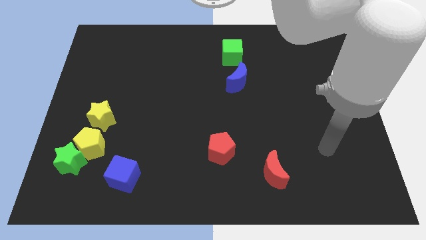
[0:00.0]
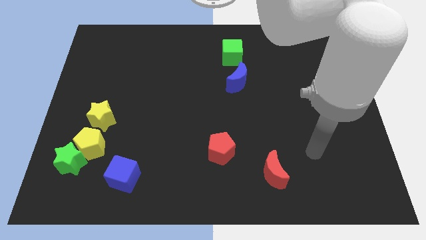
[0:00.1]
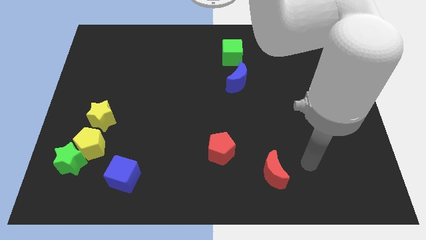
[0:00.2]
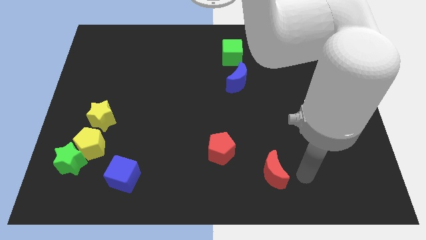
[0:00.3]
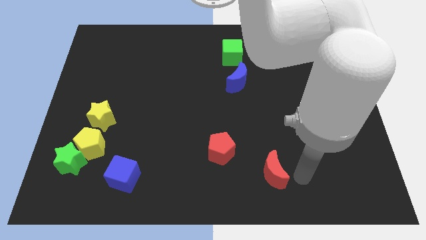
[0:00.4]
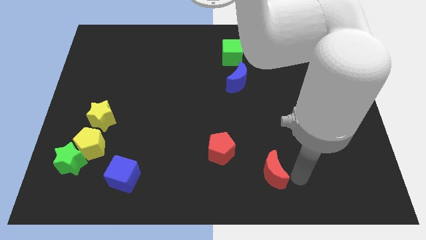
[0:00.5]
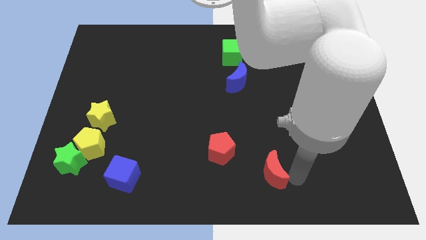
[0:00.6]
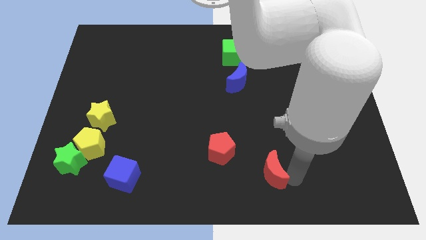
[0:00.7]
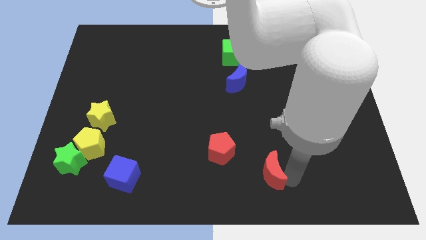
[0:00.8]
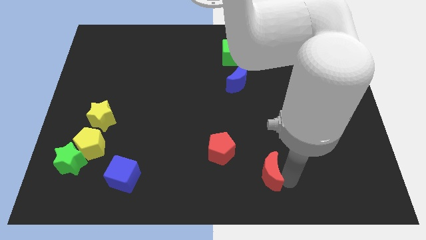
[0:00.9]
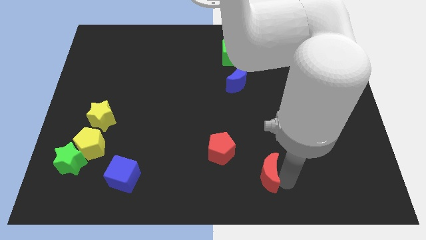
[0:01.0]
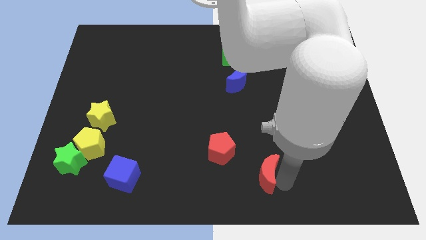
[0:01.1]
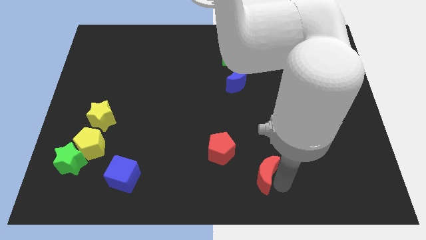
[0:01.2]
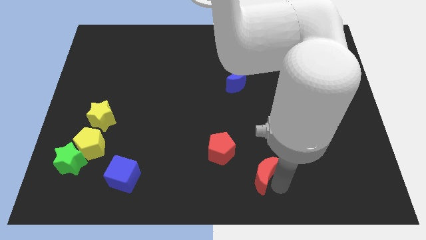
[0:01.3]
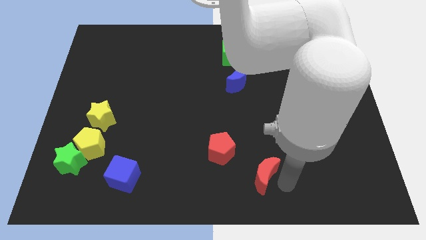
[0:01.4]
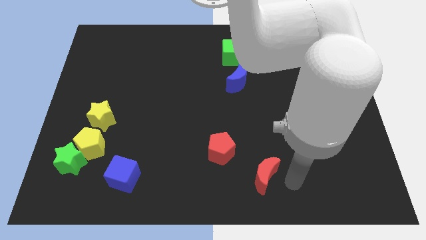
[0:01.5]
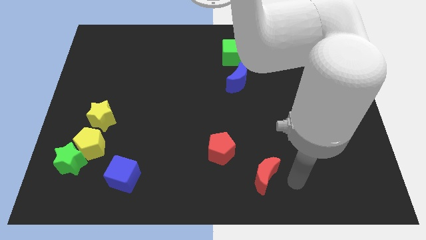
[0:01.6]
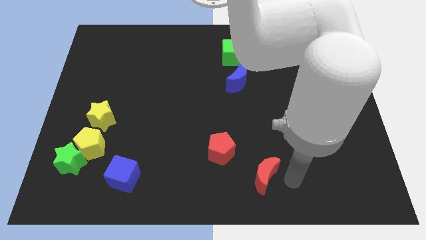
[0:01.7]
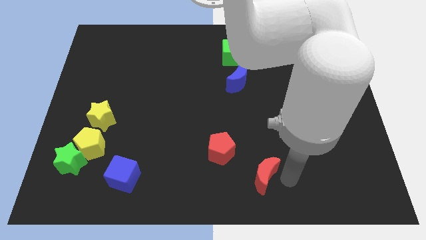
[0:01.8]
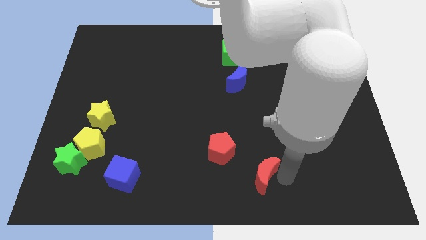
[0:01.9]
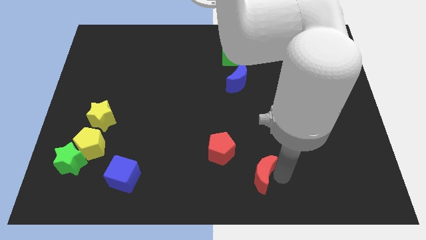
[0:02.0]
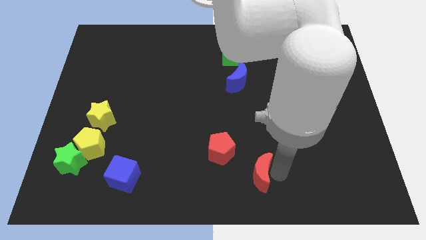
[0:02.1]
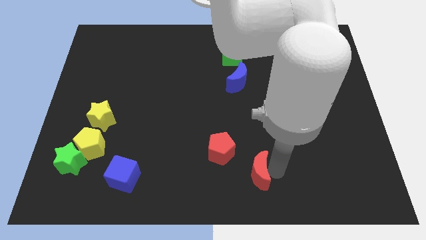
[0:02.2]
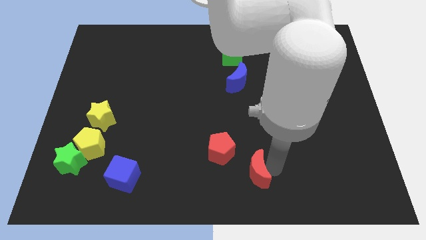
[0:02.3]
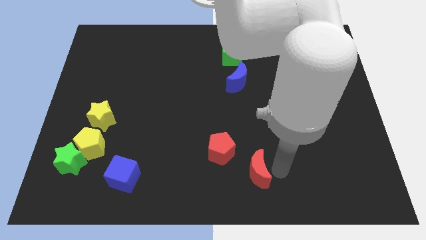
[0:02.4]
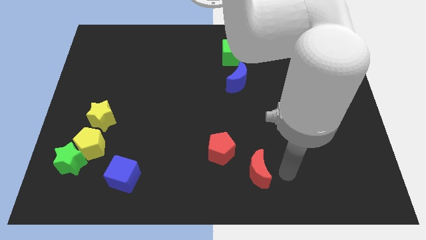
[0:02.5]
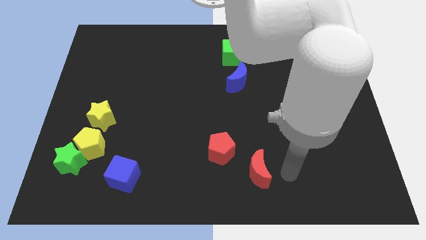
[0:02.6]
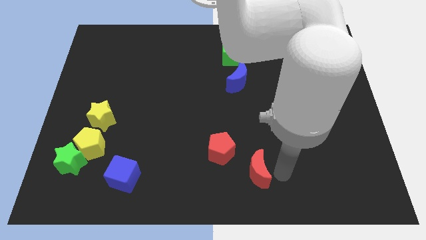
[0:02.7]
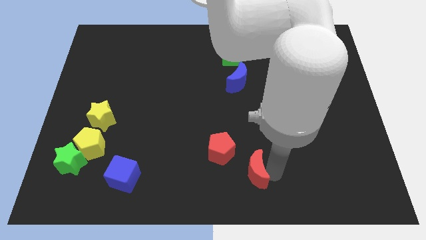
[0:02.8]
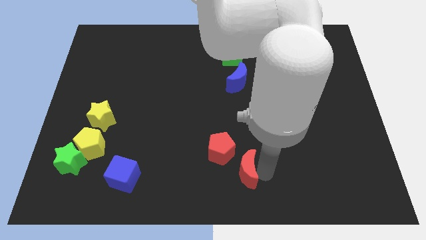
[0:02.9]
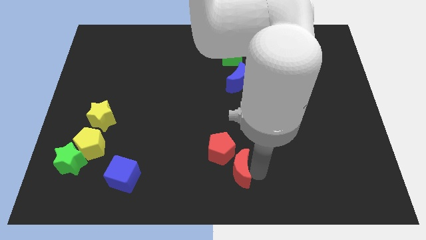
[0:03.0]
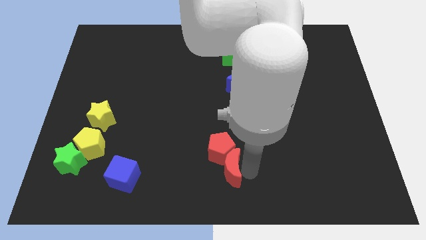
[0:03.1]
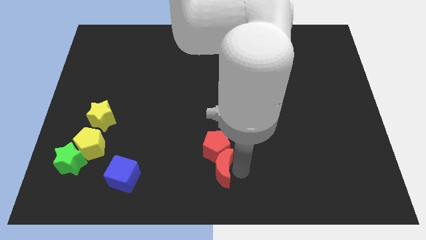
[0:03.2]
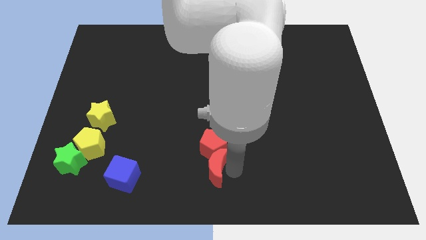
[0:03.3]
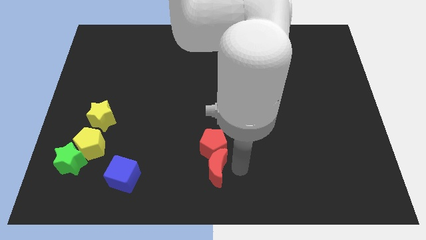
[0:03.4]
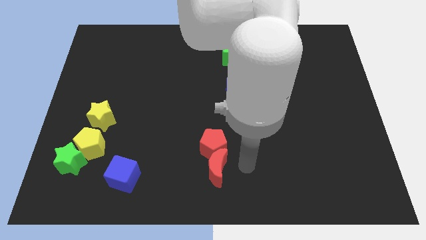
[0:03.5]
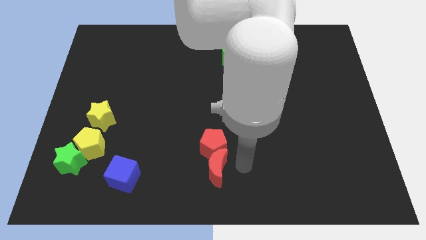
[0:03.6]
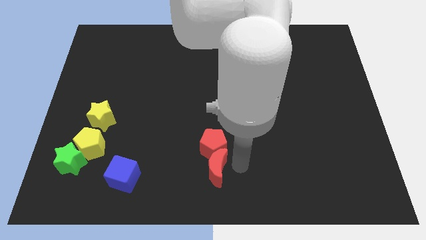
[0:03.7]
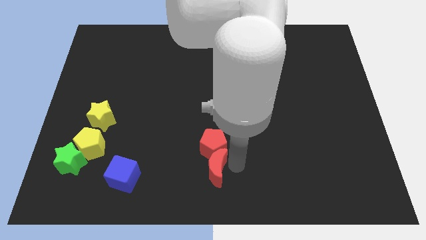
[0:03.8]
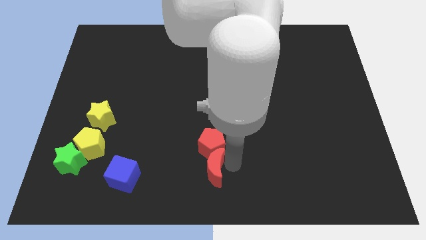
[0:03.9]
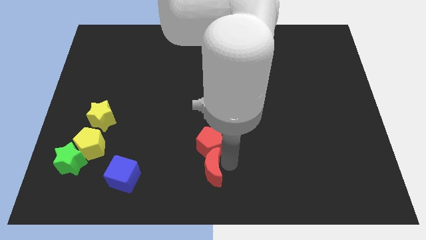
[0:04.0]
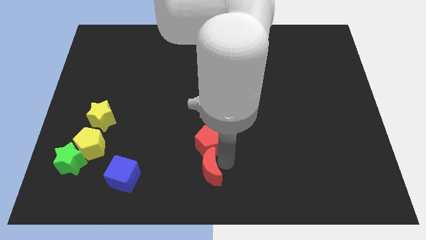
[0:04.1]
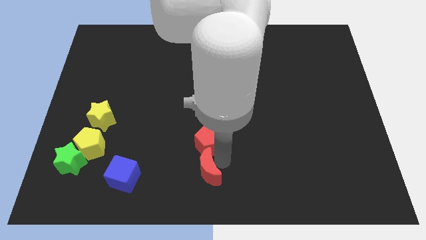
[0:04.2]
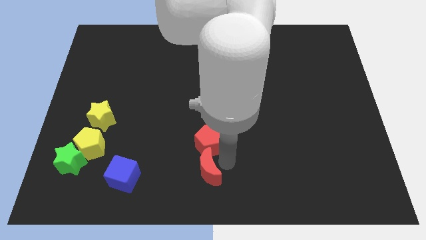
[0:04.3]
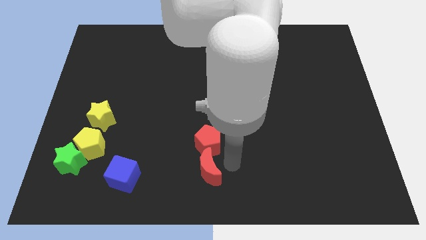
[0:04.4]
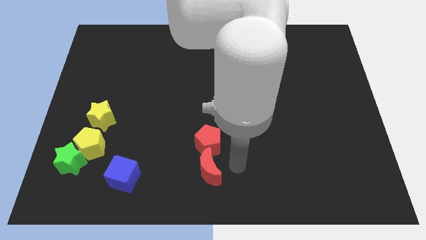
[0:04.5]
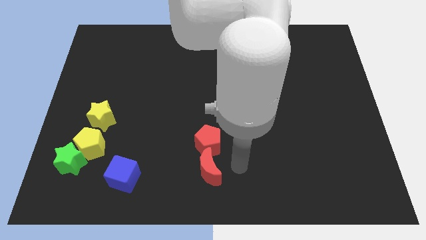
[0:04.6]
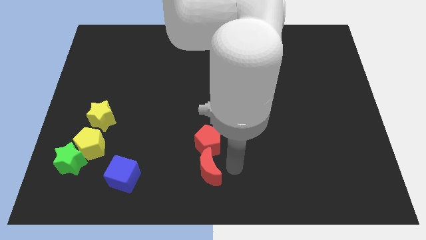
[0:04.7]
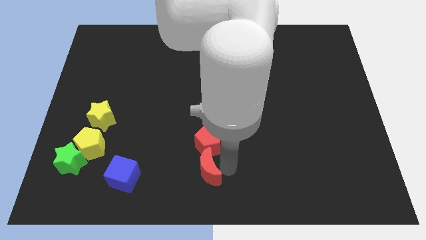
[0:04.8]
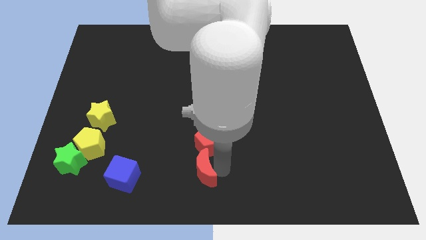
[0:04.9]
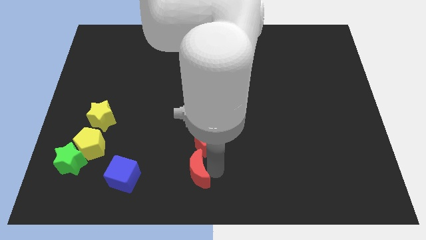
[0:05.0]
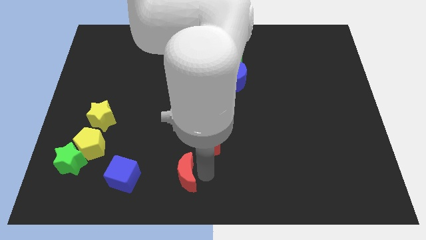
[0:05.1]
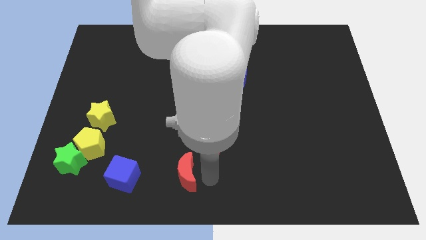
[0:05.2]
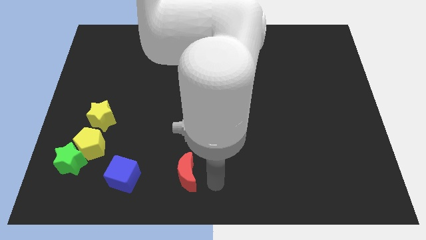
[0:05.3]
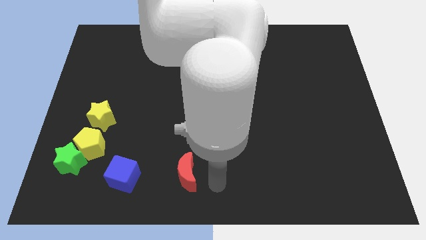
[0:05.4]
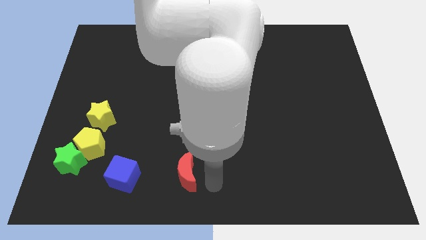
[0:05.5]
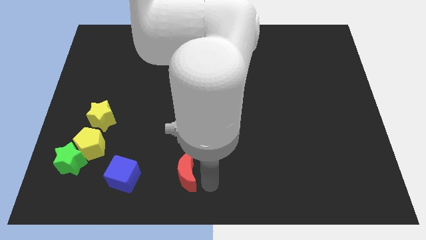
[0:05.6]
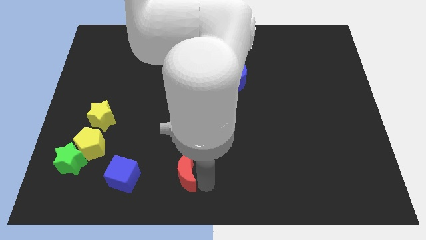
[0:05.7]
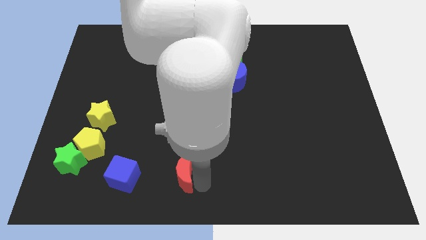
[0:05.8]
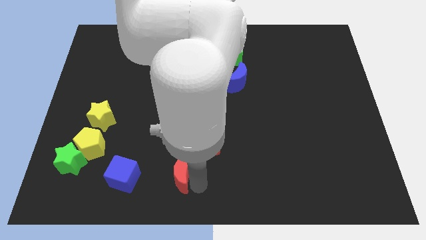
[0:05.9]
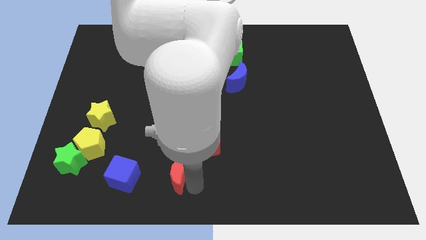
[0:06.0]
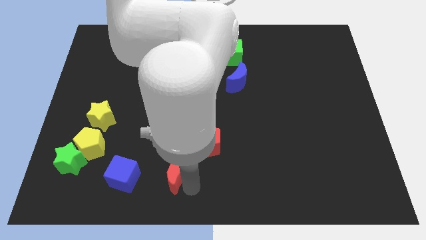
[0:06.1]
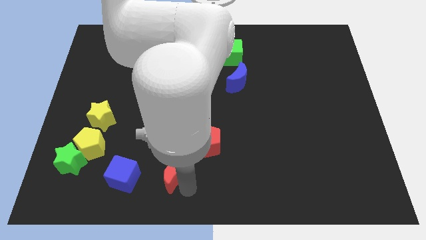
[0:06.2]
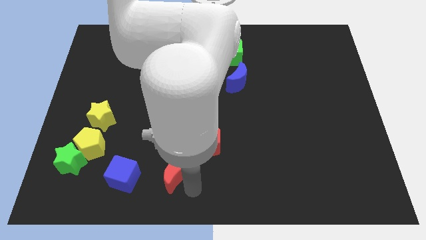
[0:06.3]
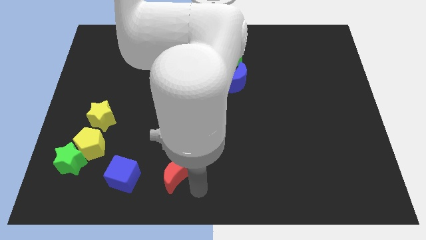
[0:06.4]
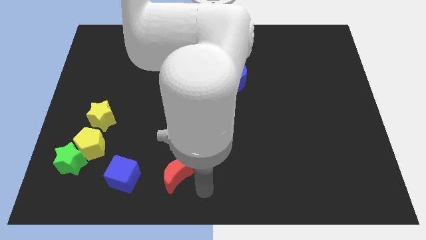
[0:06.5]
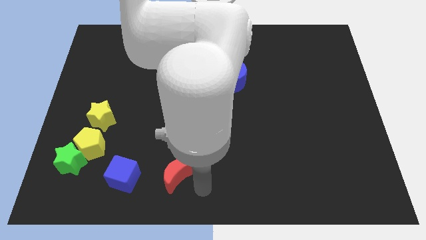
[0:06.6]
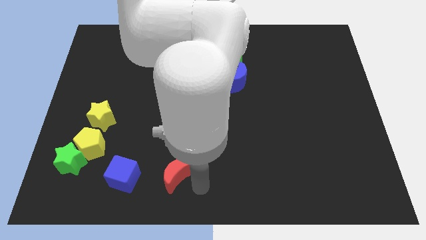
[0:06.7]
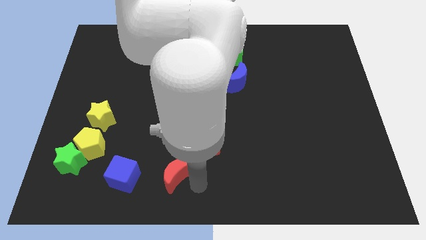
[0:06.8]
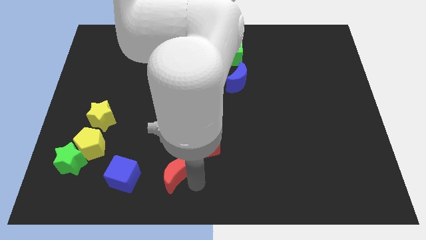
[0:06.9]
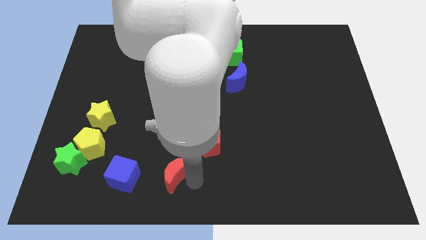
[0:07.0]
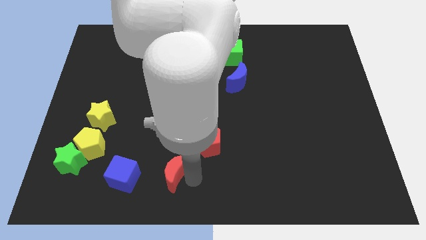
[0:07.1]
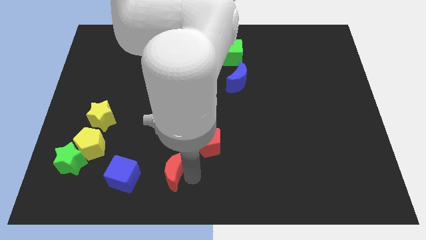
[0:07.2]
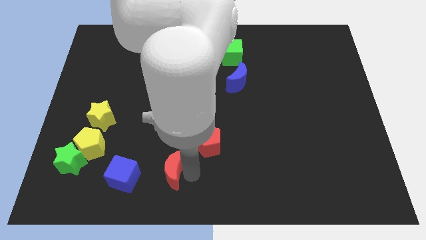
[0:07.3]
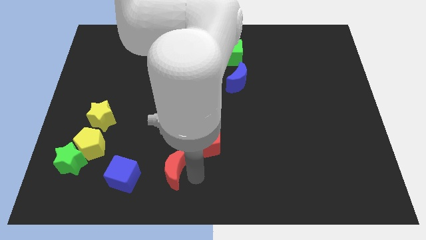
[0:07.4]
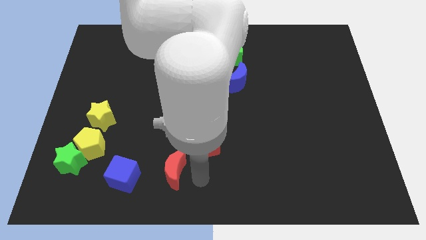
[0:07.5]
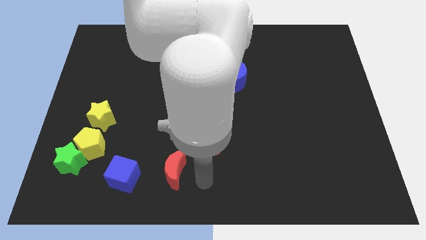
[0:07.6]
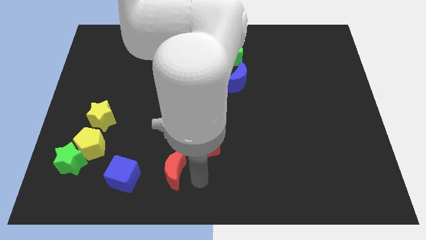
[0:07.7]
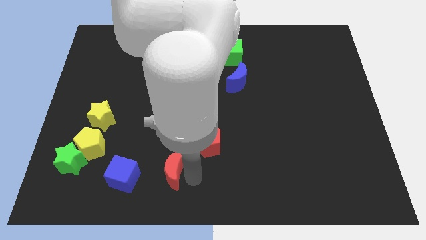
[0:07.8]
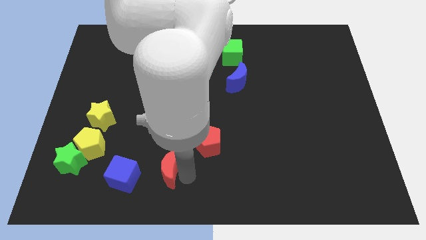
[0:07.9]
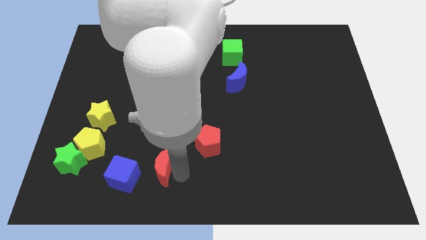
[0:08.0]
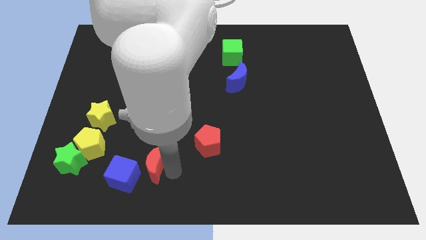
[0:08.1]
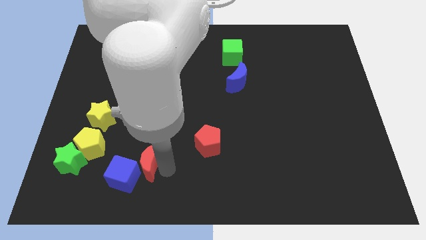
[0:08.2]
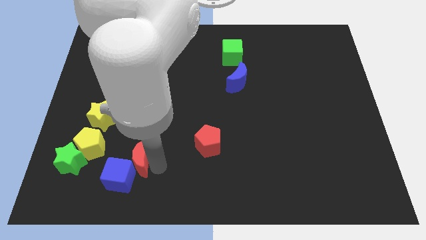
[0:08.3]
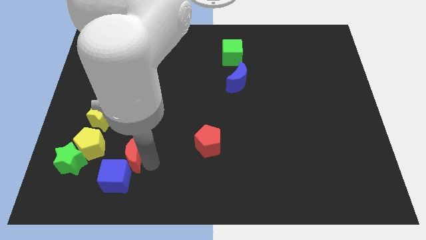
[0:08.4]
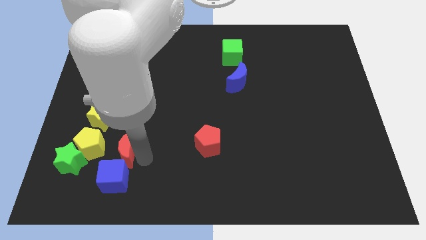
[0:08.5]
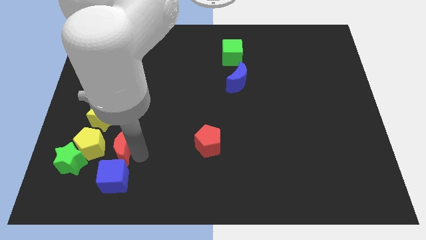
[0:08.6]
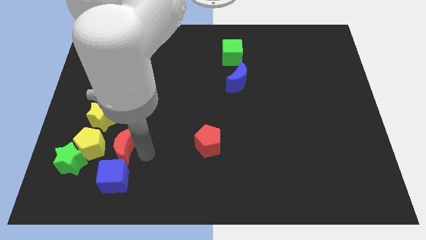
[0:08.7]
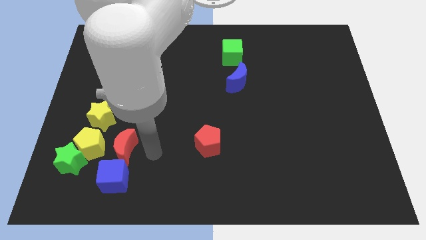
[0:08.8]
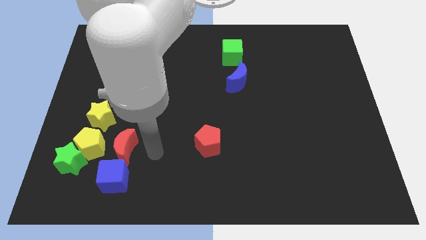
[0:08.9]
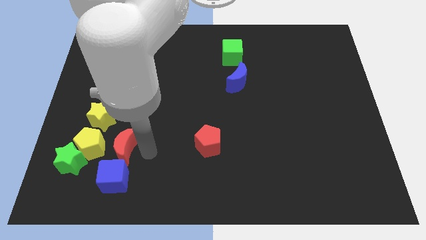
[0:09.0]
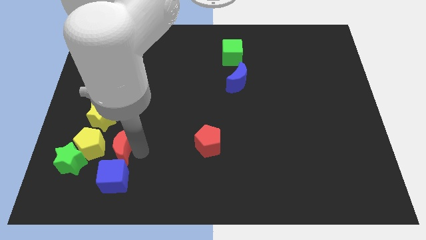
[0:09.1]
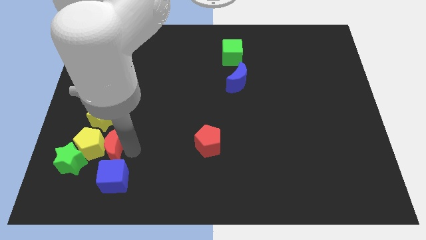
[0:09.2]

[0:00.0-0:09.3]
put the red moon close to the yellow pentagon
